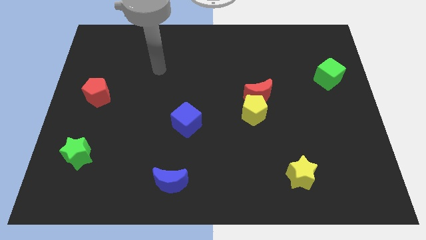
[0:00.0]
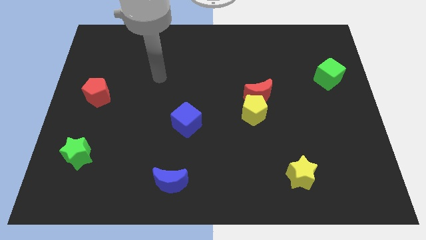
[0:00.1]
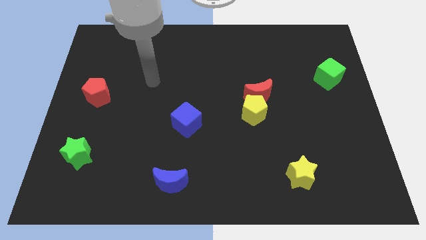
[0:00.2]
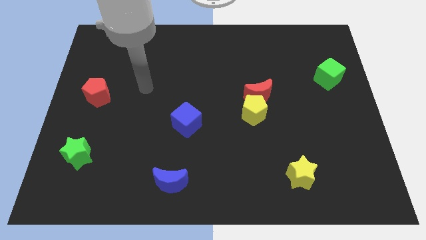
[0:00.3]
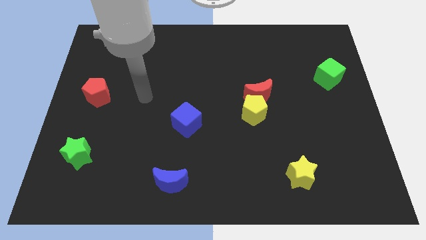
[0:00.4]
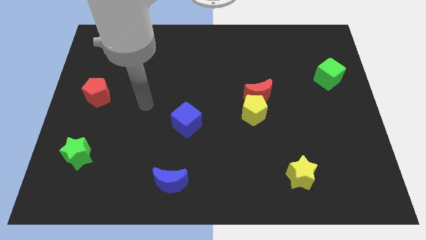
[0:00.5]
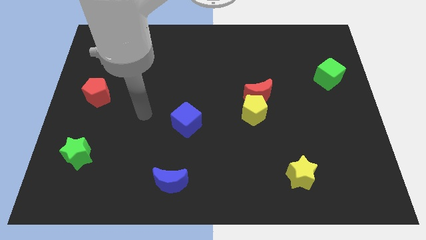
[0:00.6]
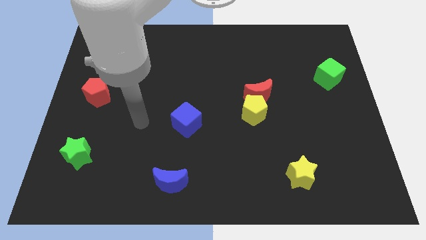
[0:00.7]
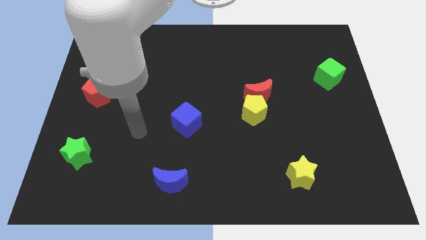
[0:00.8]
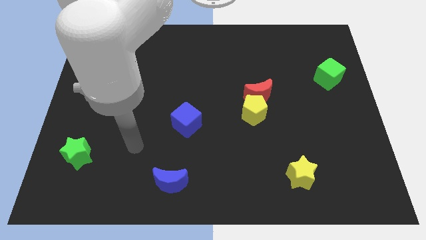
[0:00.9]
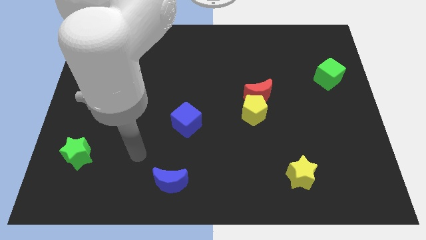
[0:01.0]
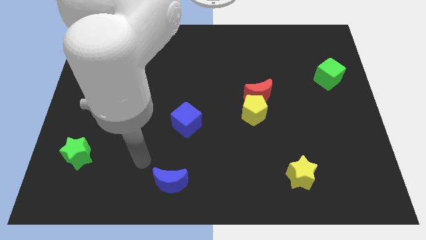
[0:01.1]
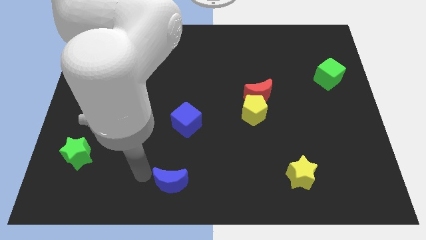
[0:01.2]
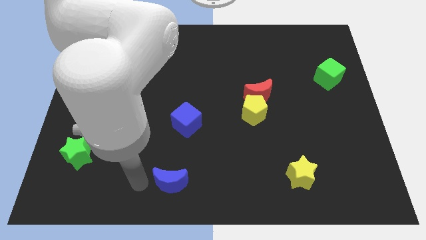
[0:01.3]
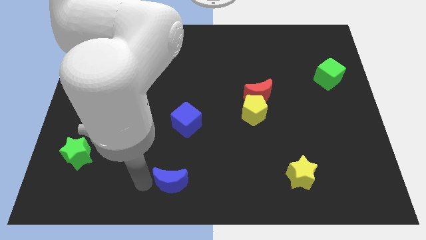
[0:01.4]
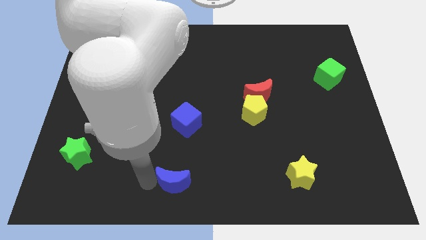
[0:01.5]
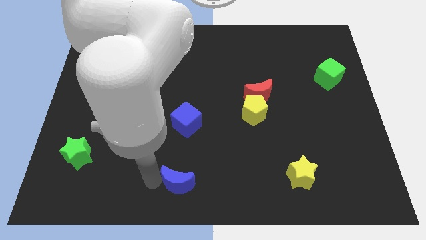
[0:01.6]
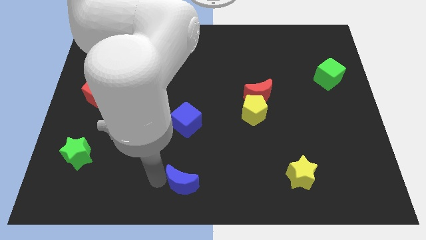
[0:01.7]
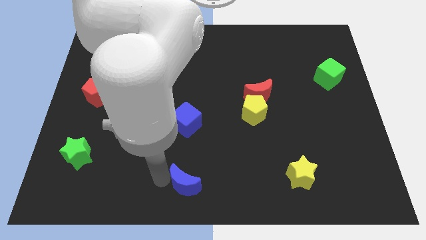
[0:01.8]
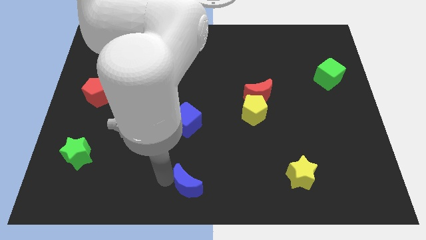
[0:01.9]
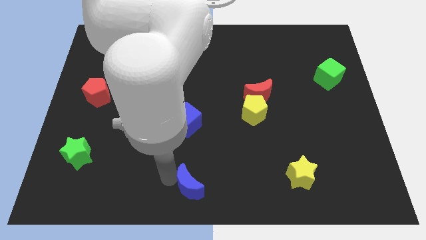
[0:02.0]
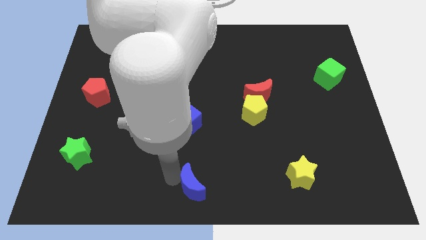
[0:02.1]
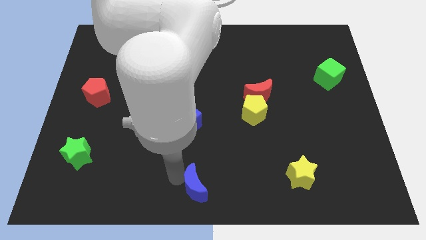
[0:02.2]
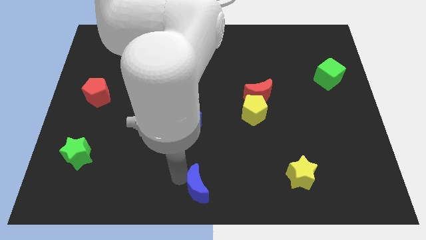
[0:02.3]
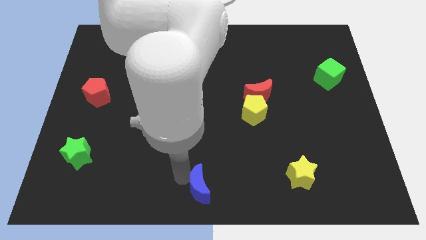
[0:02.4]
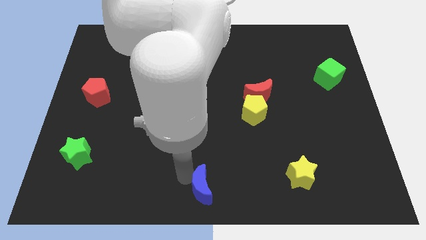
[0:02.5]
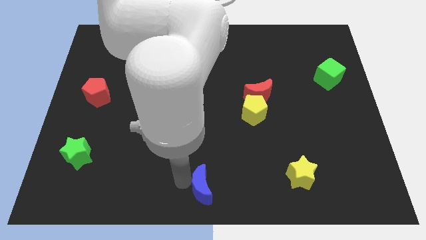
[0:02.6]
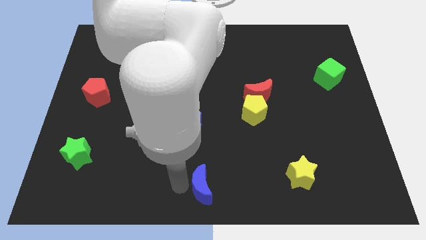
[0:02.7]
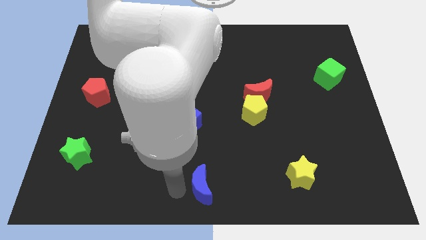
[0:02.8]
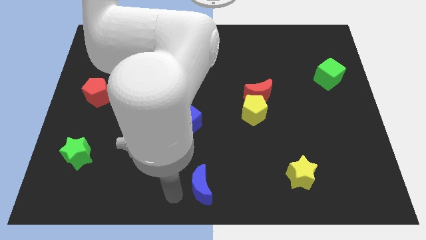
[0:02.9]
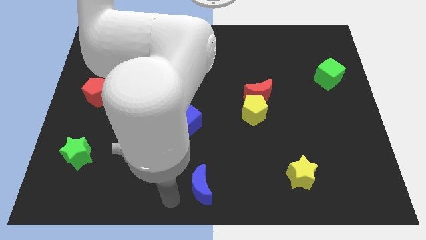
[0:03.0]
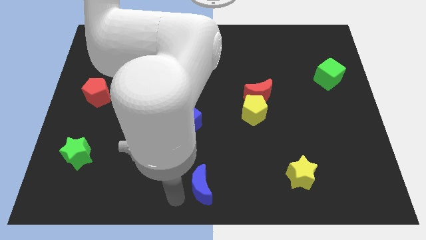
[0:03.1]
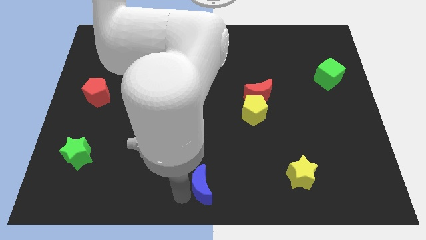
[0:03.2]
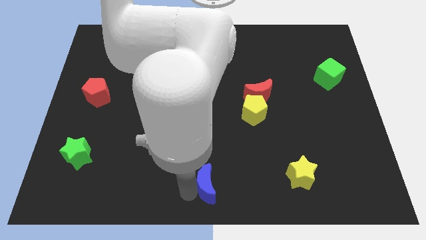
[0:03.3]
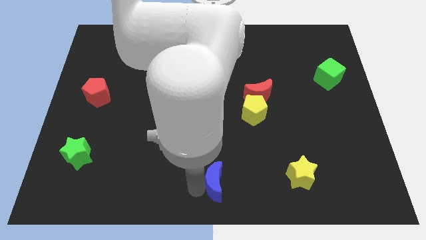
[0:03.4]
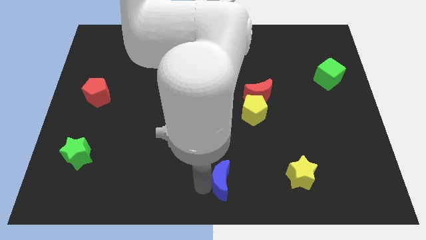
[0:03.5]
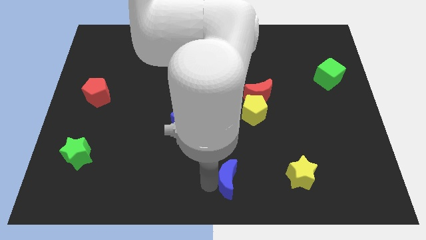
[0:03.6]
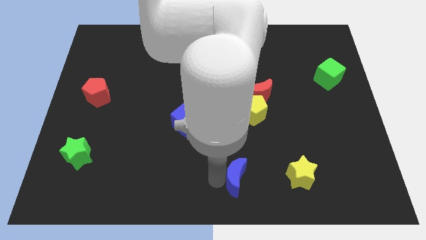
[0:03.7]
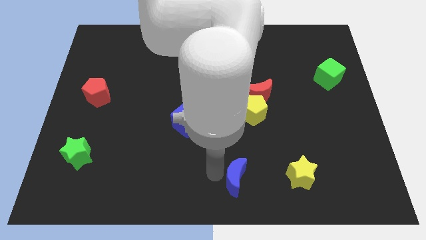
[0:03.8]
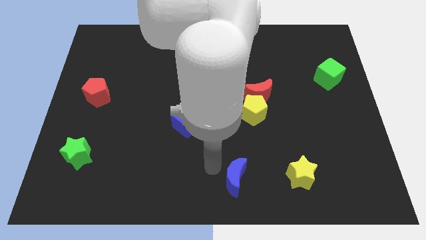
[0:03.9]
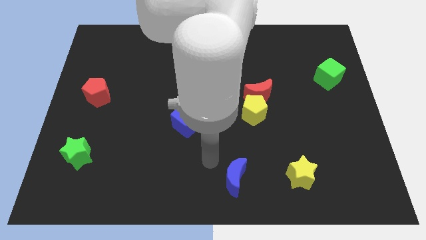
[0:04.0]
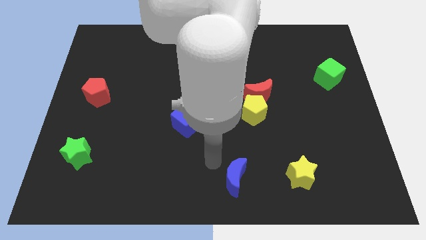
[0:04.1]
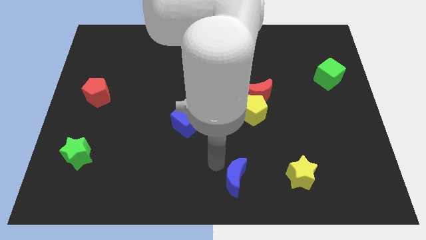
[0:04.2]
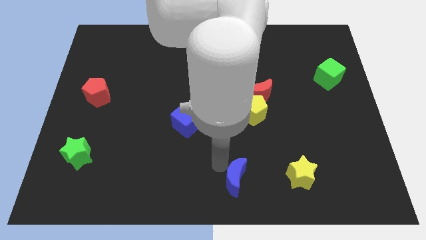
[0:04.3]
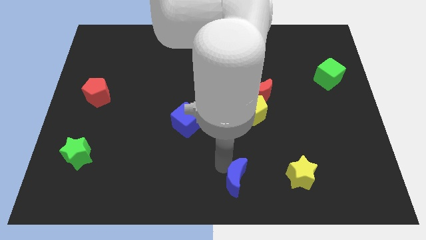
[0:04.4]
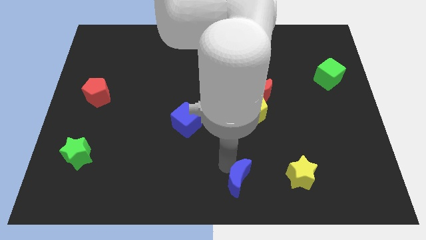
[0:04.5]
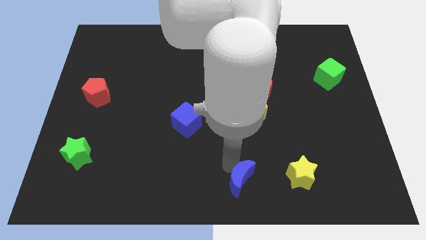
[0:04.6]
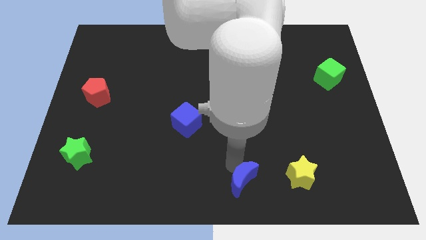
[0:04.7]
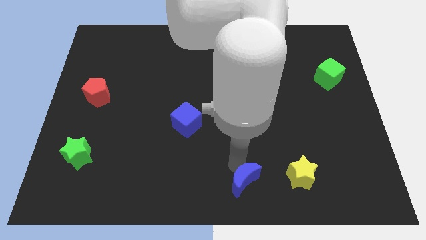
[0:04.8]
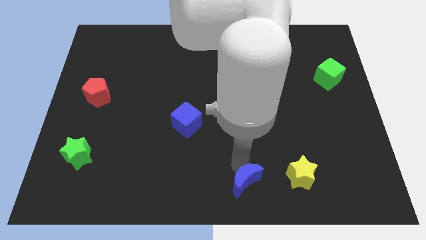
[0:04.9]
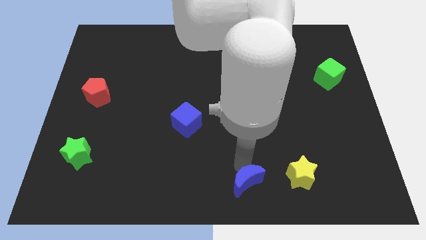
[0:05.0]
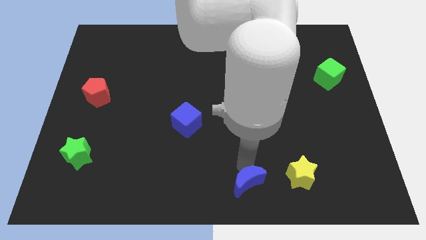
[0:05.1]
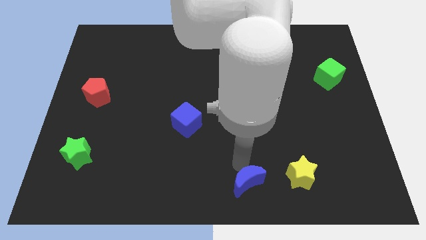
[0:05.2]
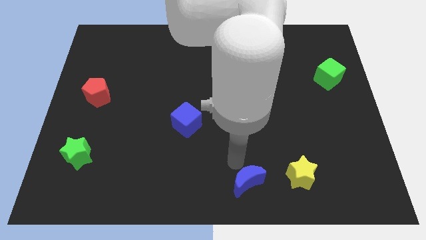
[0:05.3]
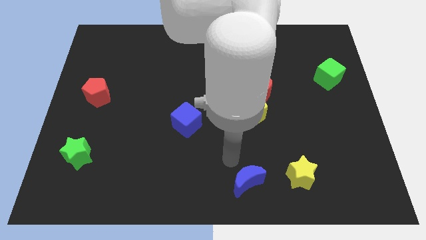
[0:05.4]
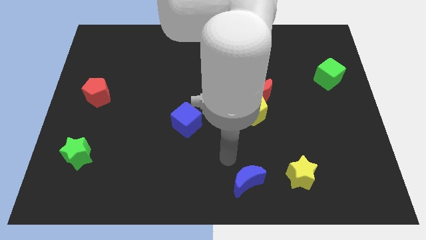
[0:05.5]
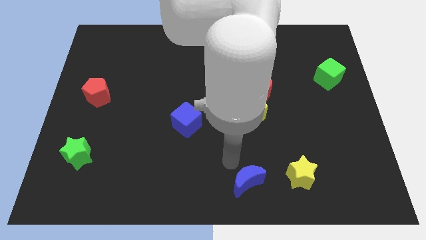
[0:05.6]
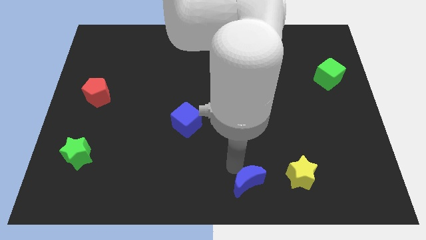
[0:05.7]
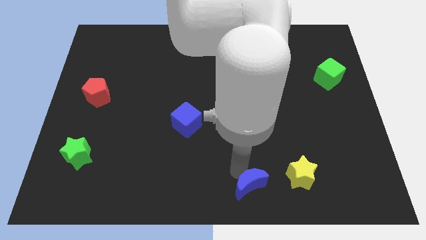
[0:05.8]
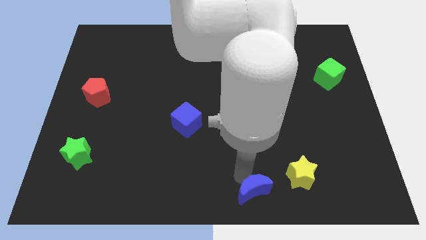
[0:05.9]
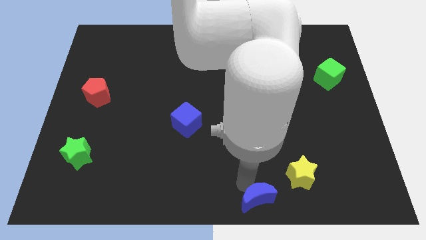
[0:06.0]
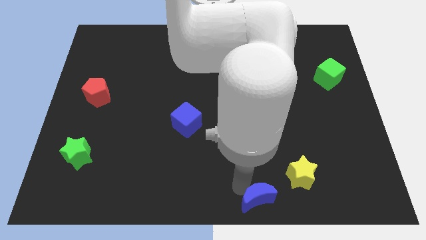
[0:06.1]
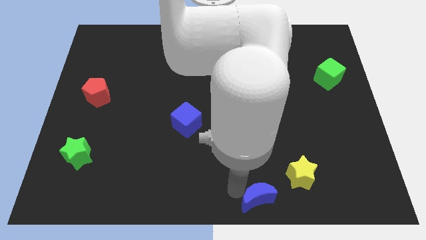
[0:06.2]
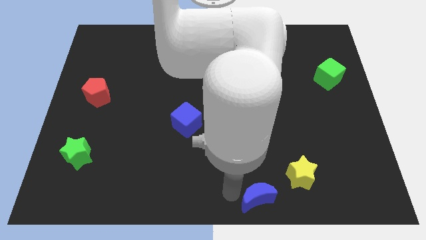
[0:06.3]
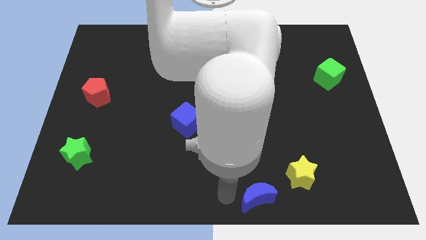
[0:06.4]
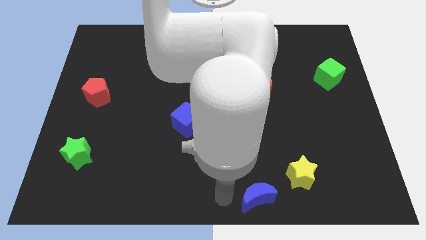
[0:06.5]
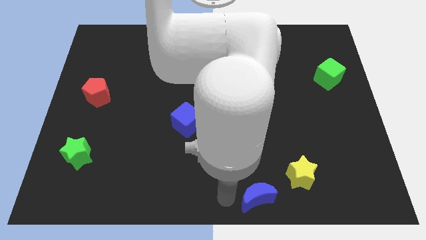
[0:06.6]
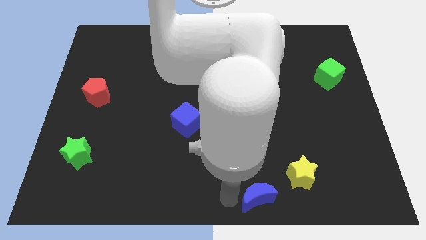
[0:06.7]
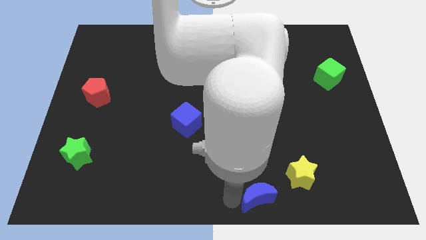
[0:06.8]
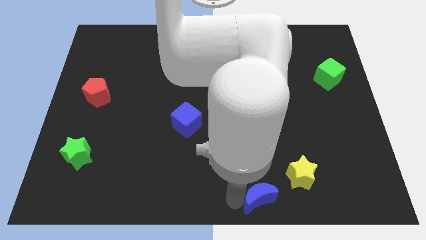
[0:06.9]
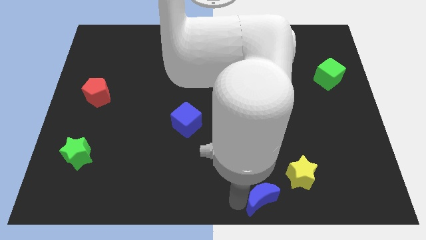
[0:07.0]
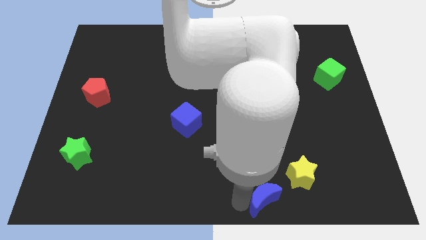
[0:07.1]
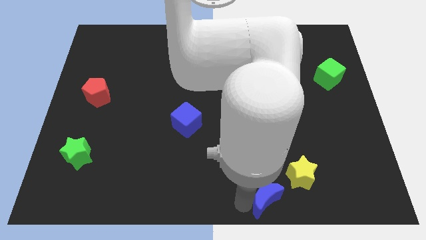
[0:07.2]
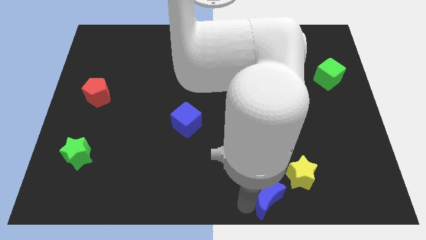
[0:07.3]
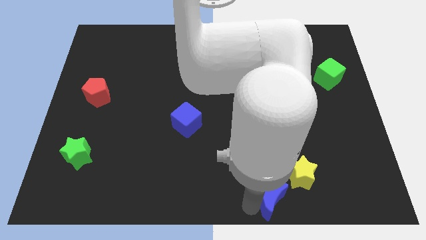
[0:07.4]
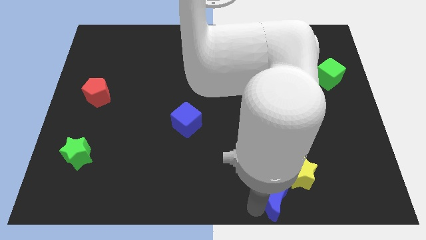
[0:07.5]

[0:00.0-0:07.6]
slide the blue moon to the right

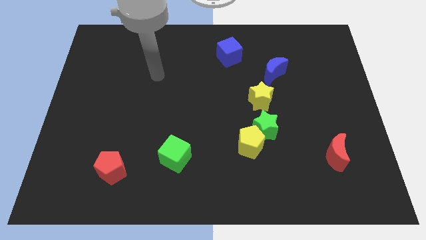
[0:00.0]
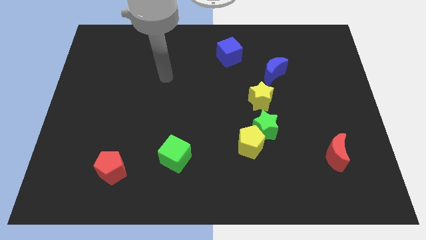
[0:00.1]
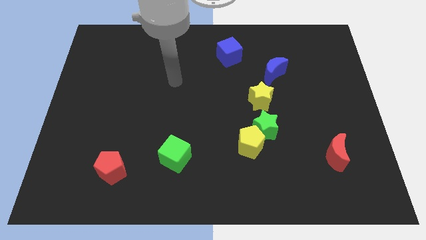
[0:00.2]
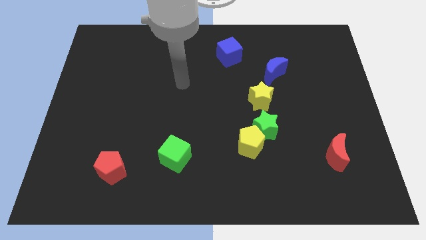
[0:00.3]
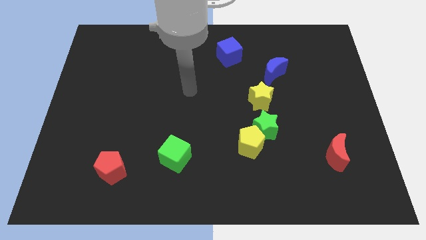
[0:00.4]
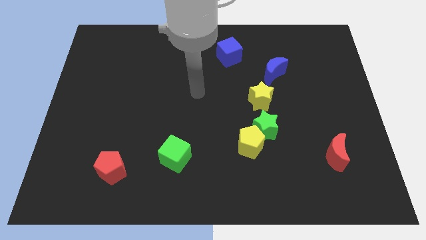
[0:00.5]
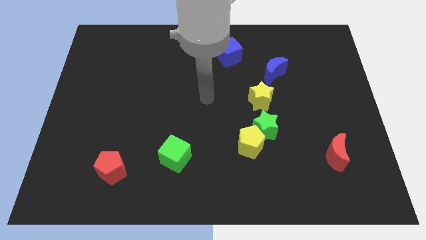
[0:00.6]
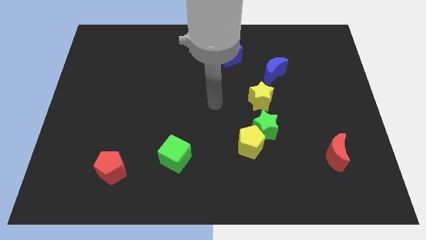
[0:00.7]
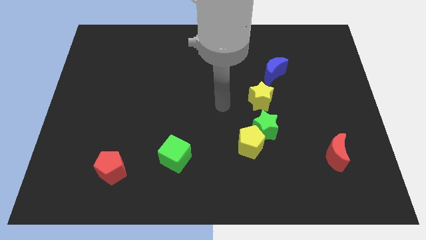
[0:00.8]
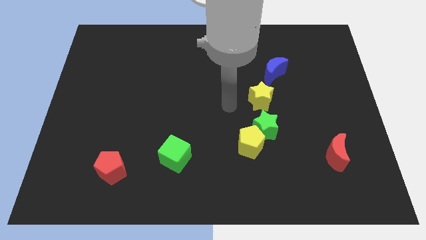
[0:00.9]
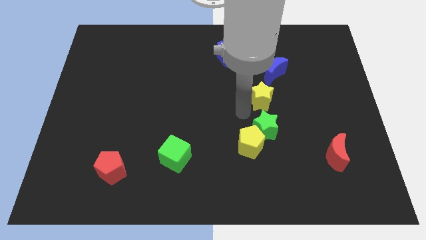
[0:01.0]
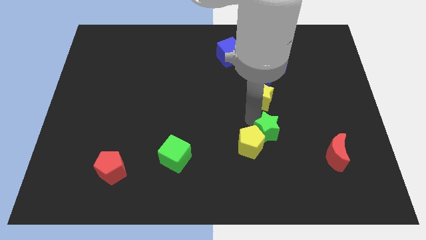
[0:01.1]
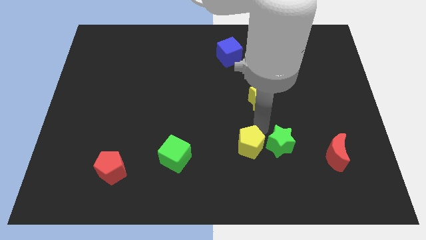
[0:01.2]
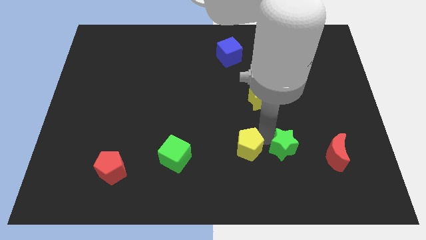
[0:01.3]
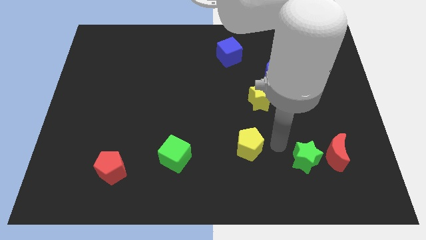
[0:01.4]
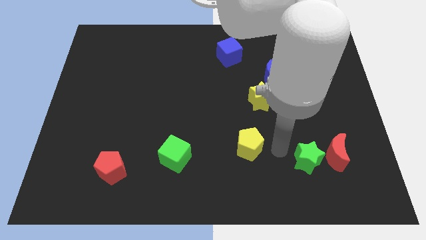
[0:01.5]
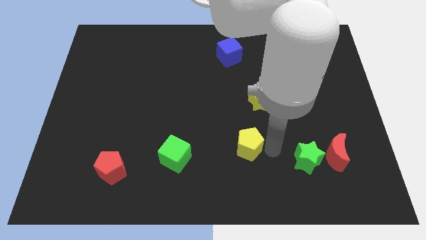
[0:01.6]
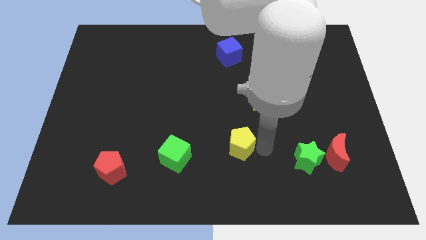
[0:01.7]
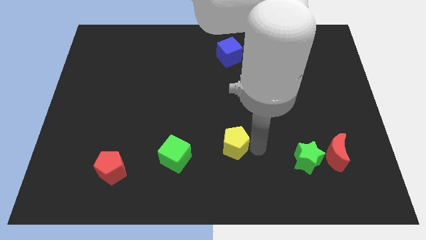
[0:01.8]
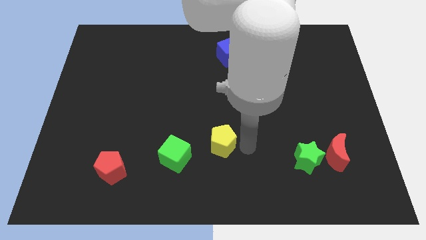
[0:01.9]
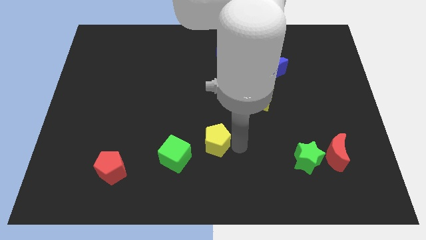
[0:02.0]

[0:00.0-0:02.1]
slightly move the yellow pentagon left
